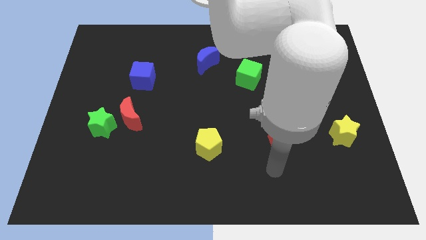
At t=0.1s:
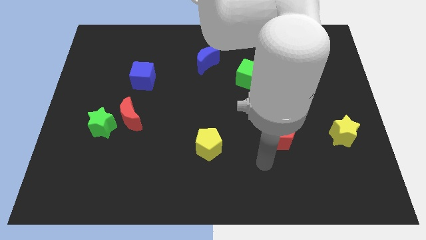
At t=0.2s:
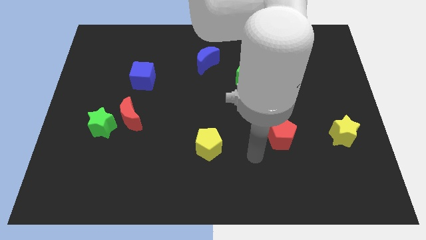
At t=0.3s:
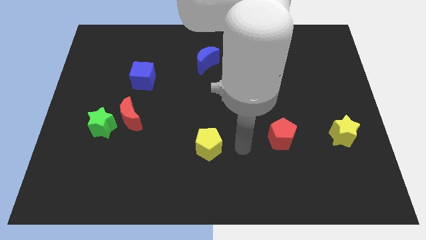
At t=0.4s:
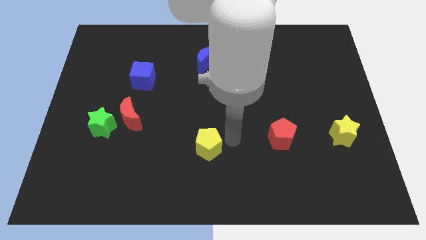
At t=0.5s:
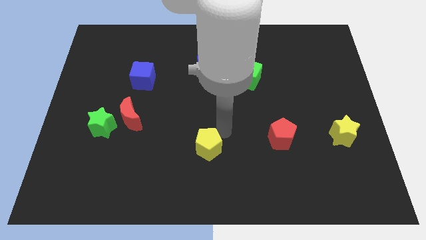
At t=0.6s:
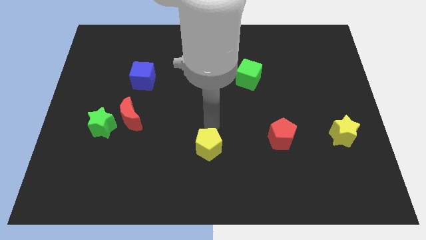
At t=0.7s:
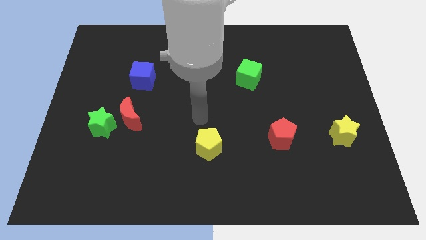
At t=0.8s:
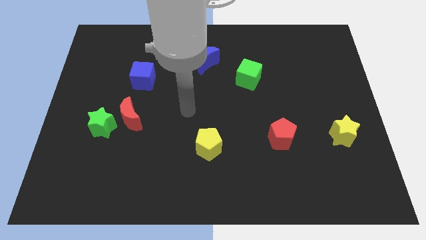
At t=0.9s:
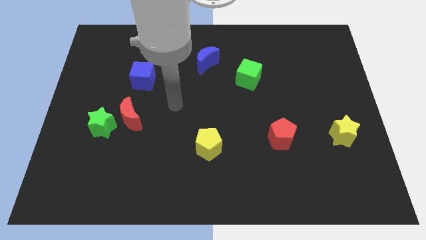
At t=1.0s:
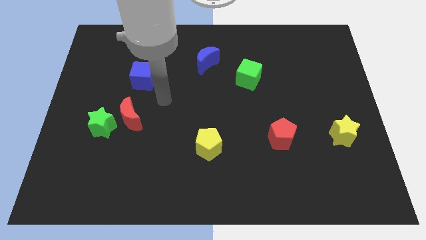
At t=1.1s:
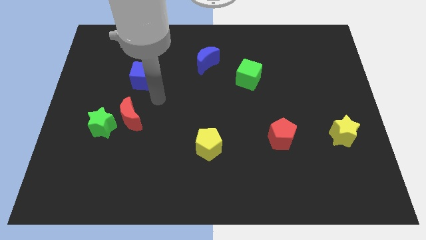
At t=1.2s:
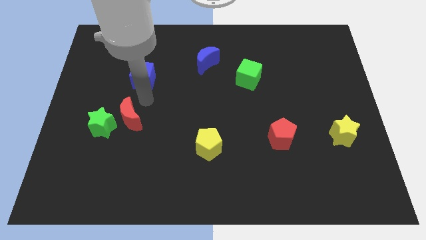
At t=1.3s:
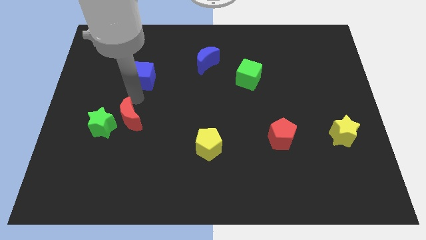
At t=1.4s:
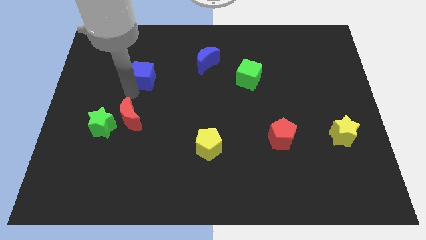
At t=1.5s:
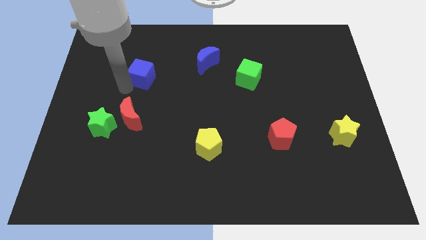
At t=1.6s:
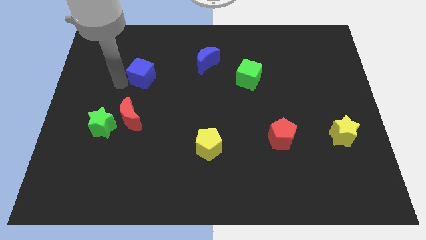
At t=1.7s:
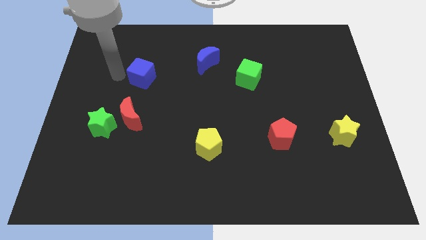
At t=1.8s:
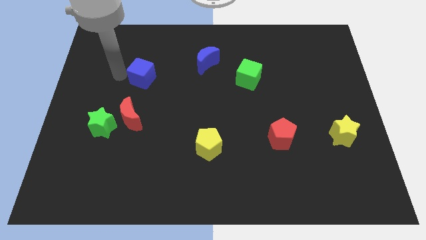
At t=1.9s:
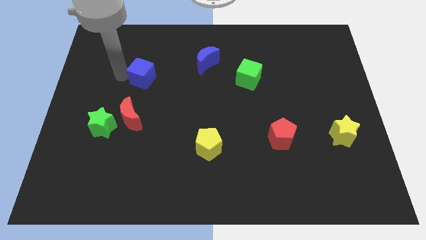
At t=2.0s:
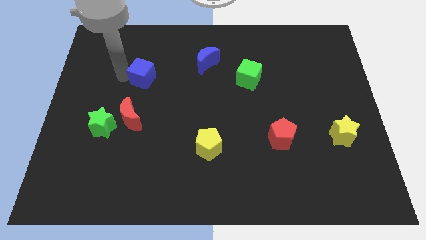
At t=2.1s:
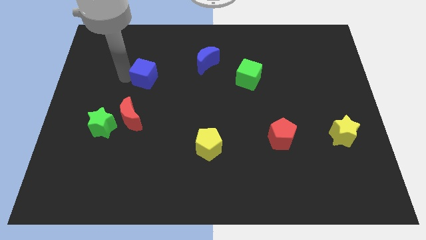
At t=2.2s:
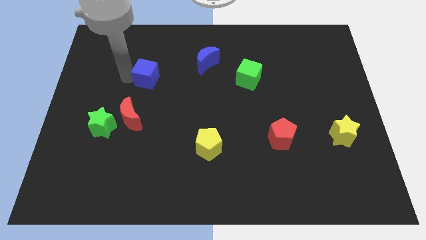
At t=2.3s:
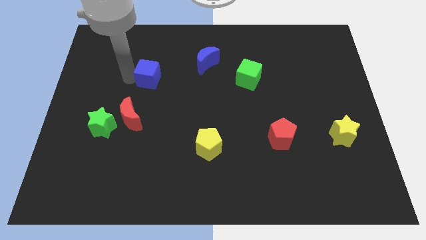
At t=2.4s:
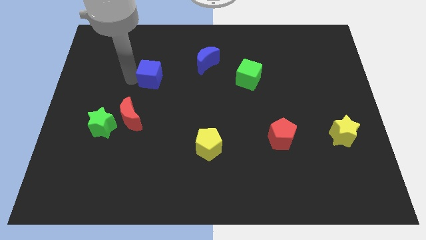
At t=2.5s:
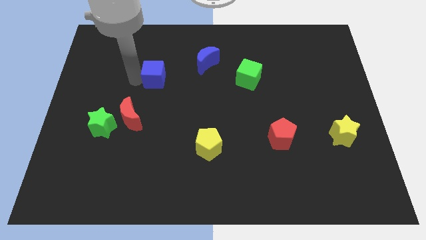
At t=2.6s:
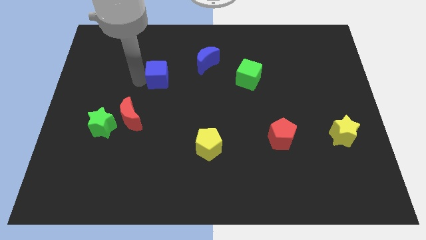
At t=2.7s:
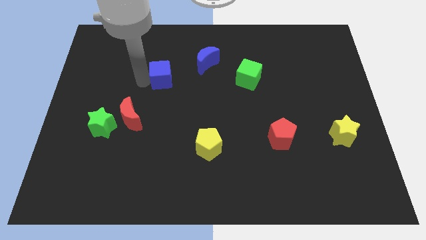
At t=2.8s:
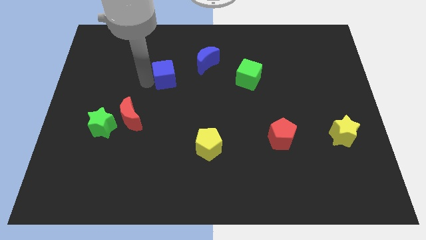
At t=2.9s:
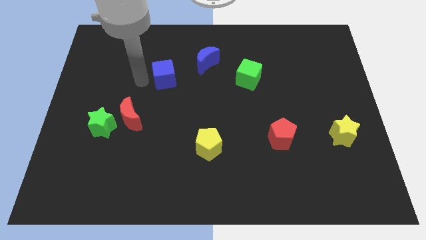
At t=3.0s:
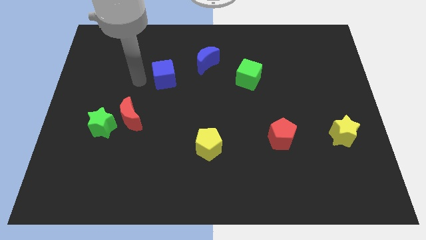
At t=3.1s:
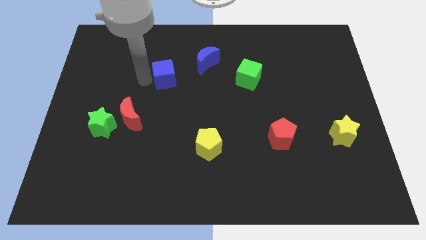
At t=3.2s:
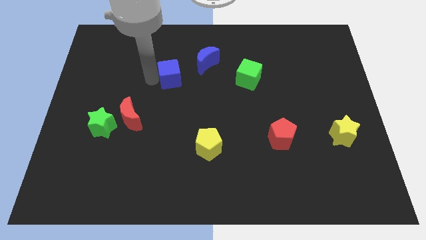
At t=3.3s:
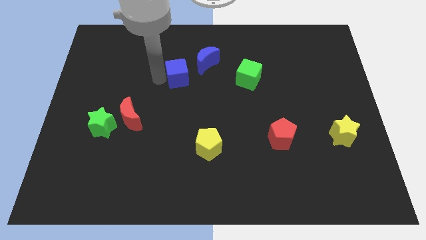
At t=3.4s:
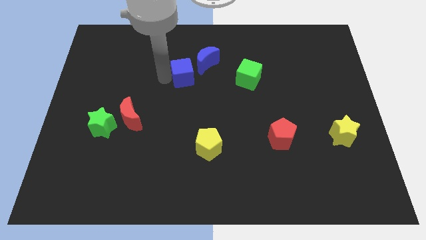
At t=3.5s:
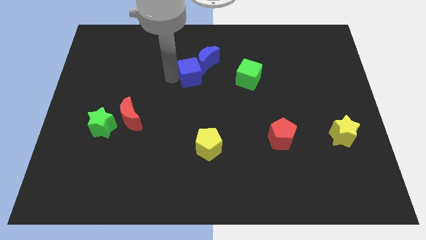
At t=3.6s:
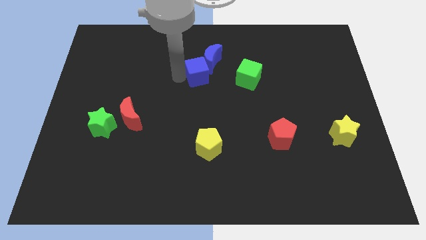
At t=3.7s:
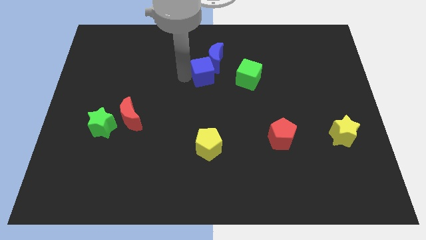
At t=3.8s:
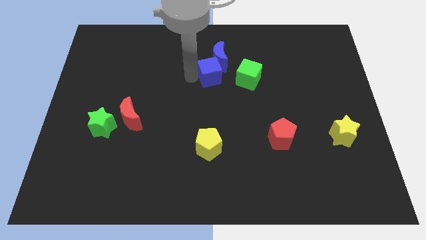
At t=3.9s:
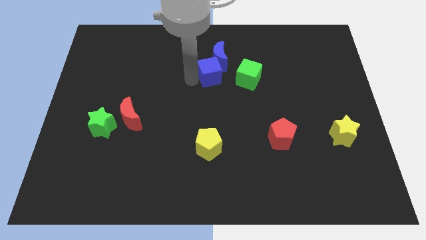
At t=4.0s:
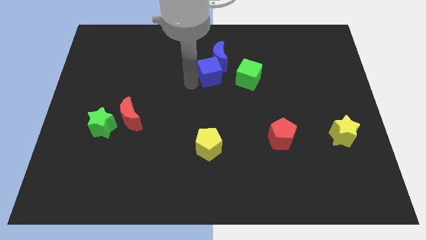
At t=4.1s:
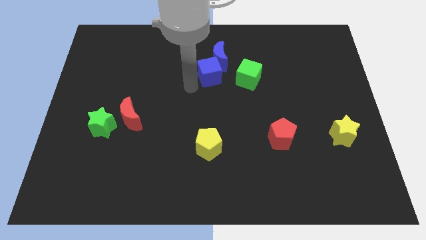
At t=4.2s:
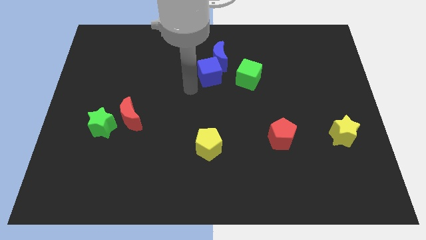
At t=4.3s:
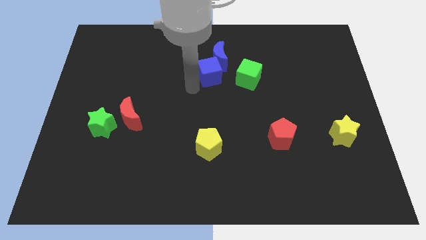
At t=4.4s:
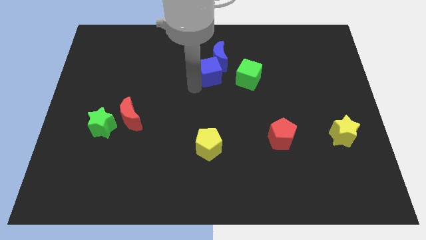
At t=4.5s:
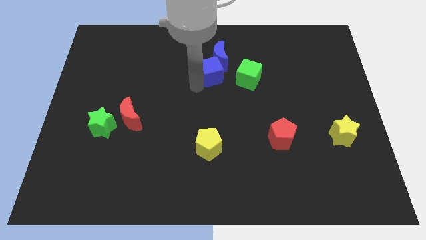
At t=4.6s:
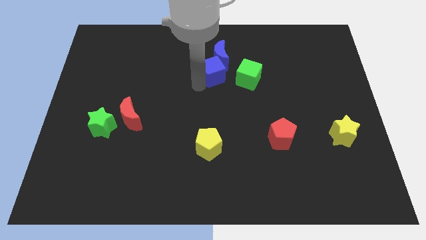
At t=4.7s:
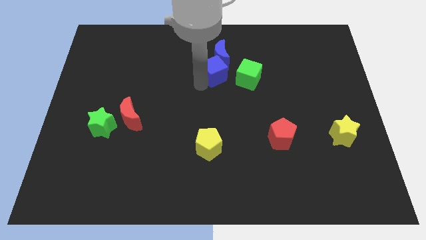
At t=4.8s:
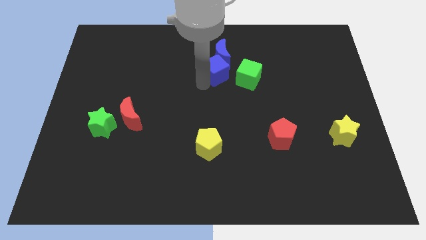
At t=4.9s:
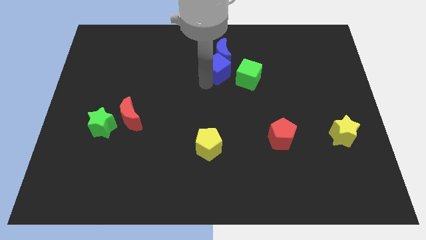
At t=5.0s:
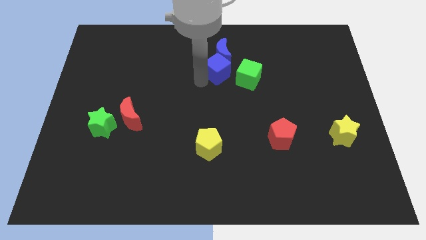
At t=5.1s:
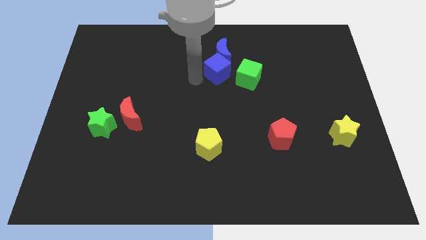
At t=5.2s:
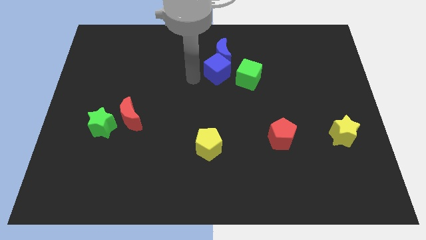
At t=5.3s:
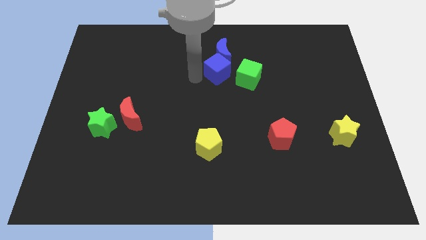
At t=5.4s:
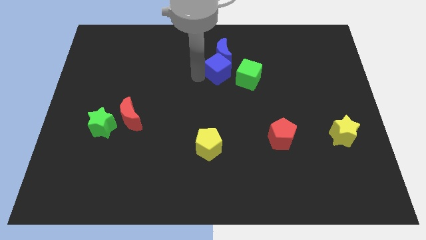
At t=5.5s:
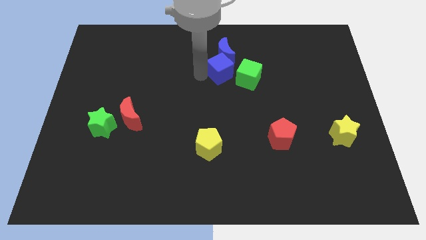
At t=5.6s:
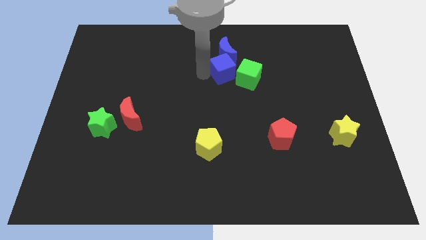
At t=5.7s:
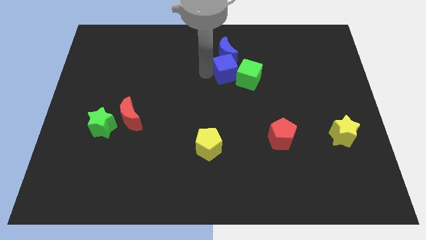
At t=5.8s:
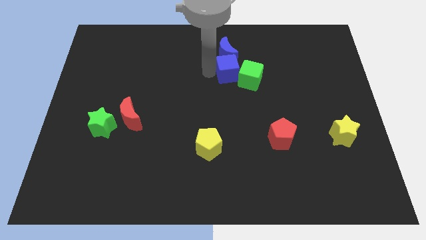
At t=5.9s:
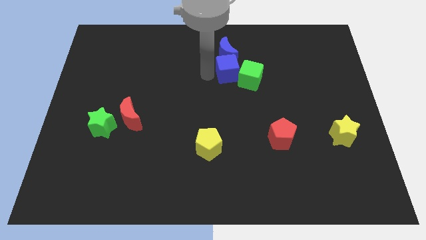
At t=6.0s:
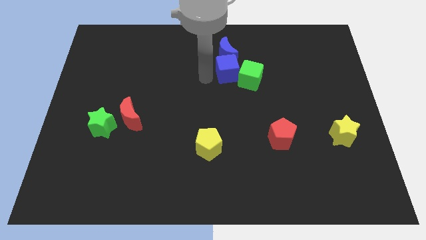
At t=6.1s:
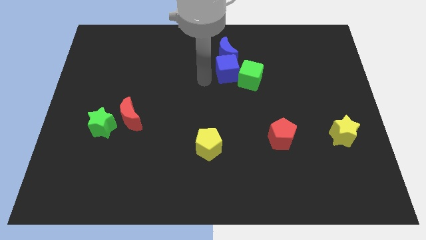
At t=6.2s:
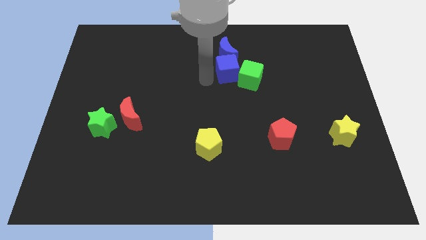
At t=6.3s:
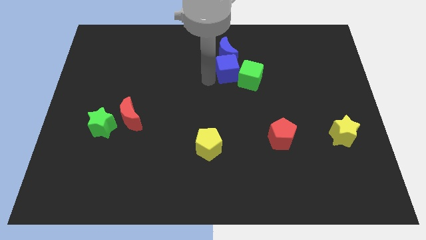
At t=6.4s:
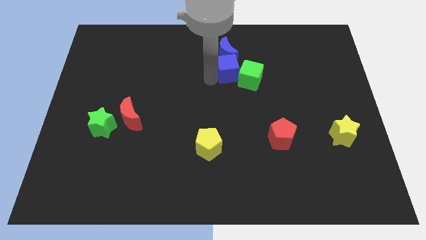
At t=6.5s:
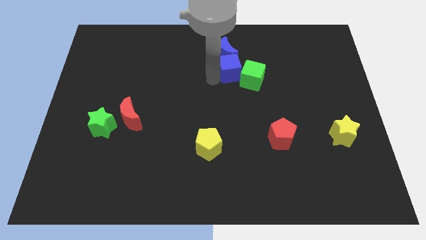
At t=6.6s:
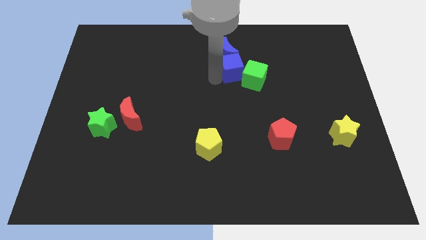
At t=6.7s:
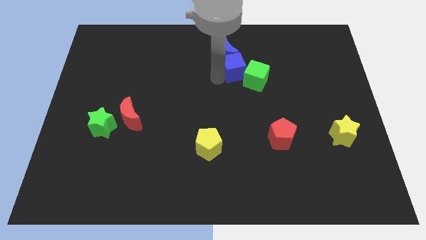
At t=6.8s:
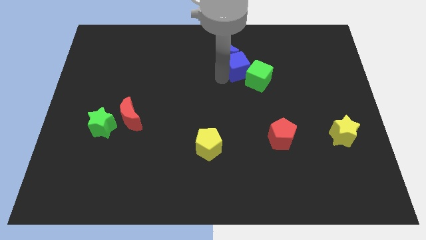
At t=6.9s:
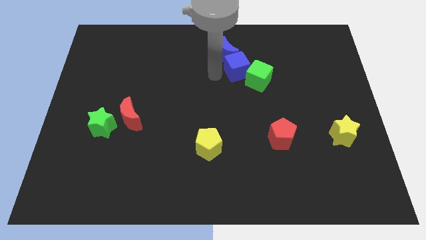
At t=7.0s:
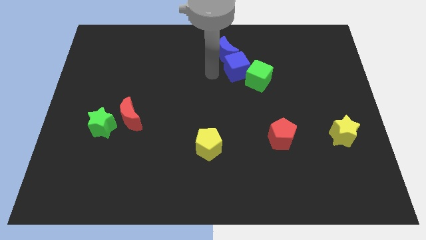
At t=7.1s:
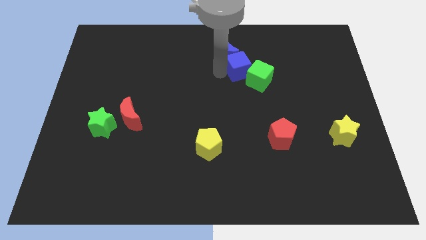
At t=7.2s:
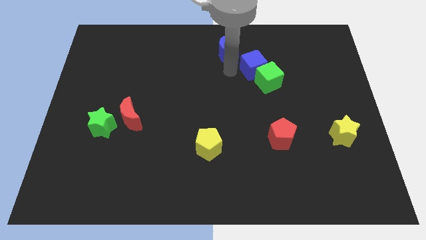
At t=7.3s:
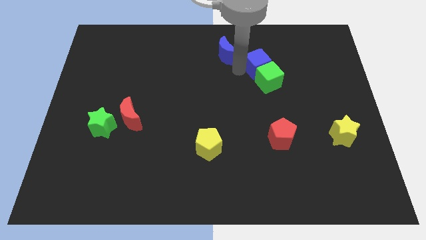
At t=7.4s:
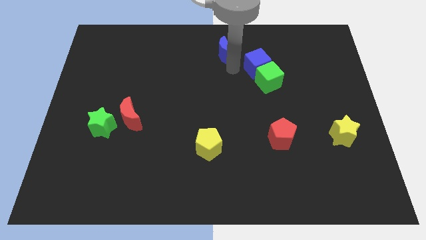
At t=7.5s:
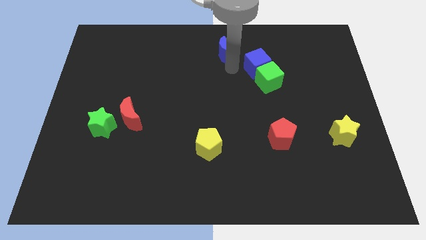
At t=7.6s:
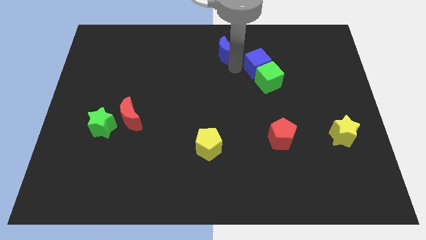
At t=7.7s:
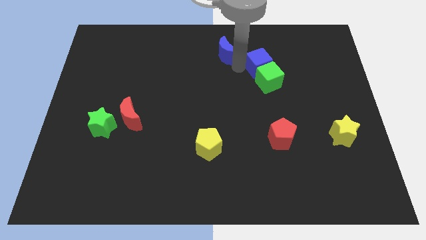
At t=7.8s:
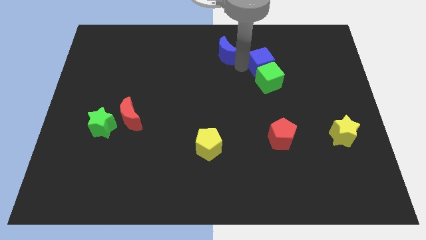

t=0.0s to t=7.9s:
move the blue cube to the top right side of the green cube
